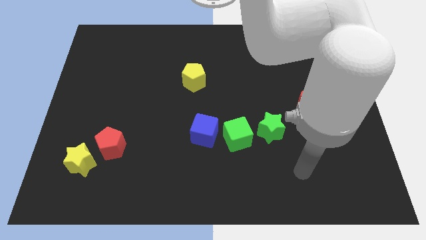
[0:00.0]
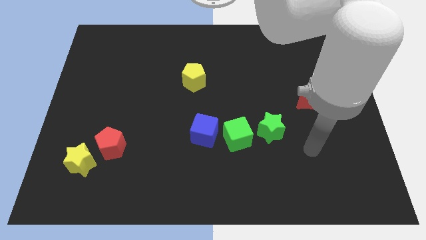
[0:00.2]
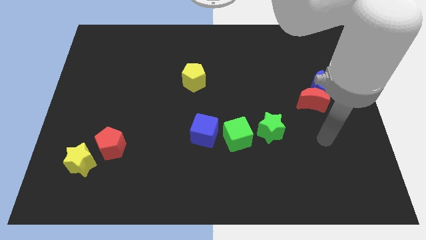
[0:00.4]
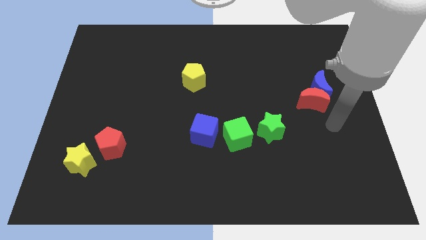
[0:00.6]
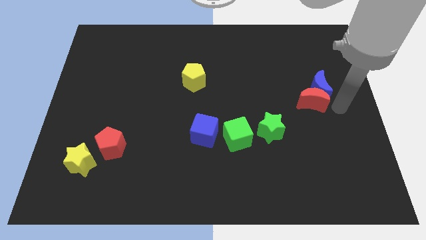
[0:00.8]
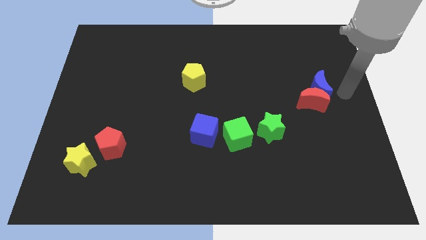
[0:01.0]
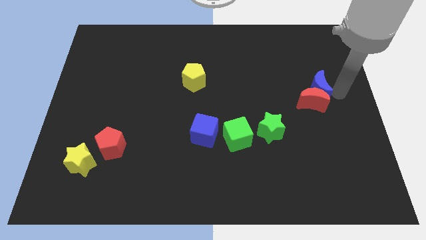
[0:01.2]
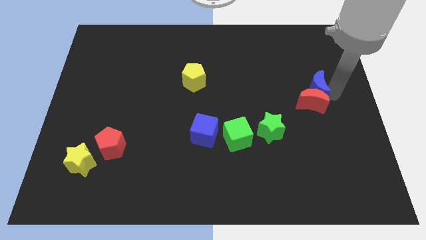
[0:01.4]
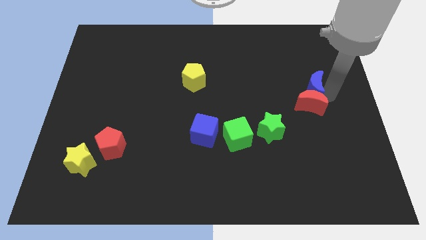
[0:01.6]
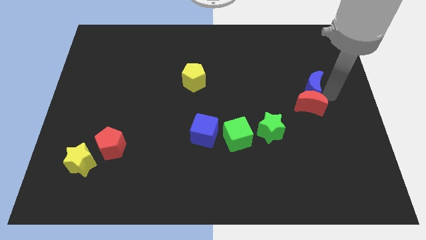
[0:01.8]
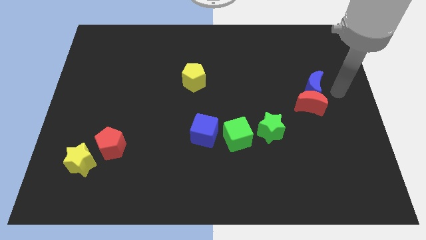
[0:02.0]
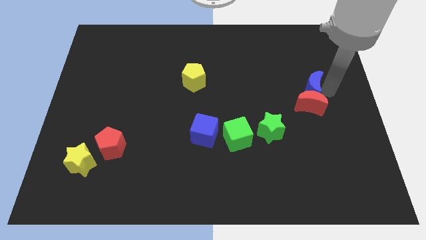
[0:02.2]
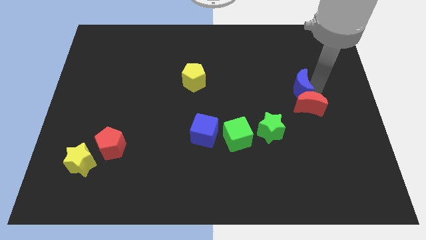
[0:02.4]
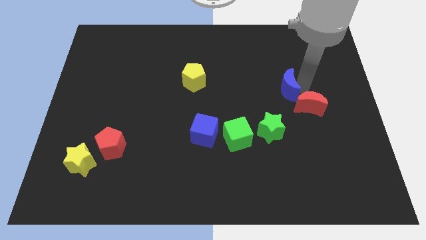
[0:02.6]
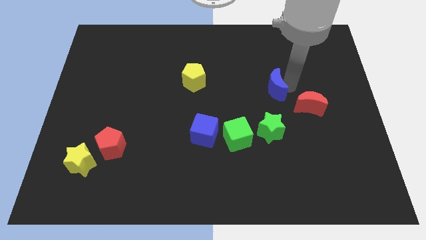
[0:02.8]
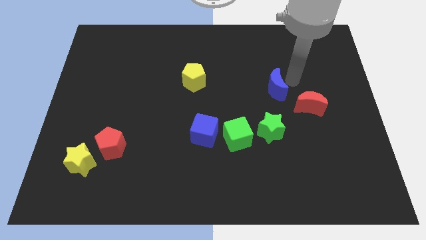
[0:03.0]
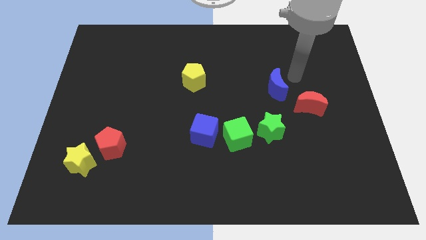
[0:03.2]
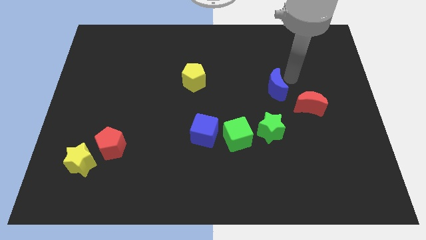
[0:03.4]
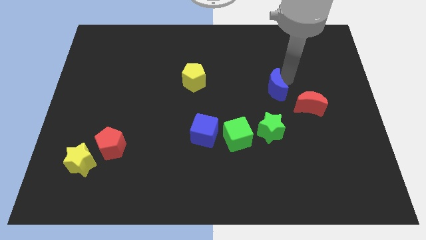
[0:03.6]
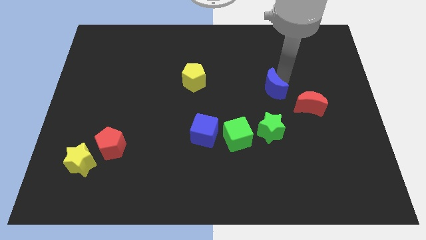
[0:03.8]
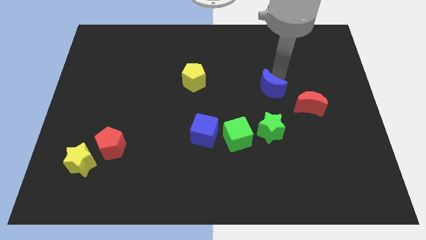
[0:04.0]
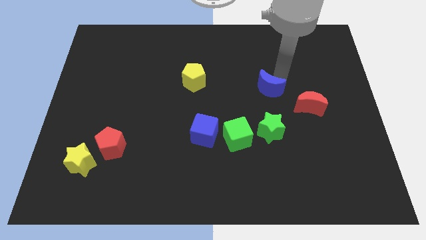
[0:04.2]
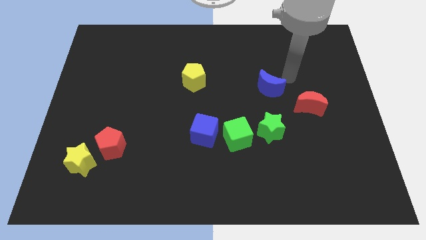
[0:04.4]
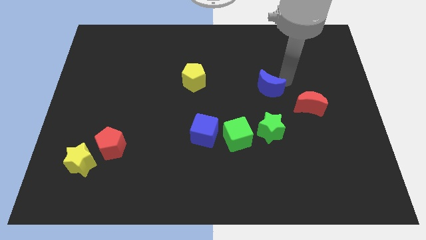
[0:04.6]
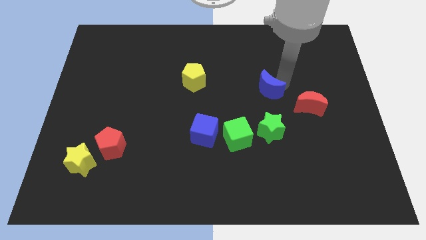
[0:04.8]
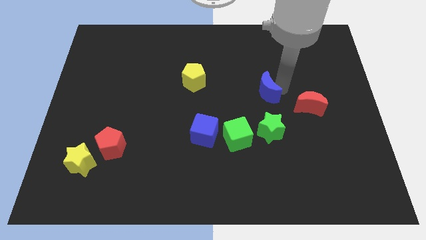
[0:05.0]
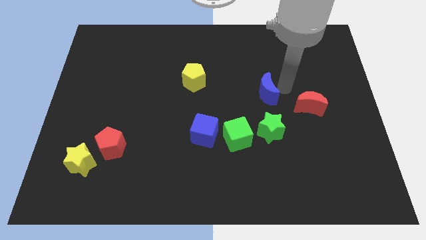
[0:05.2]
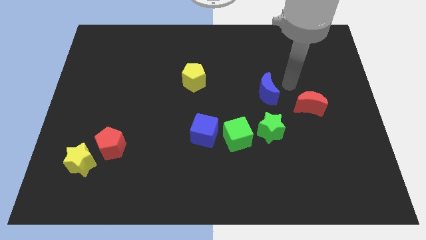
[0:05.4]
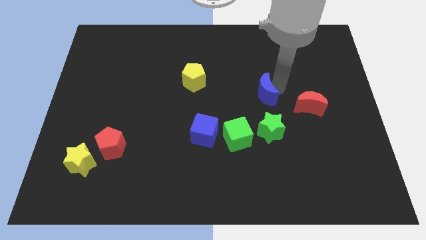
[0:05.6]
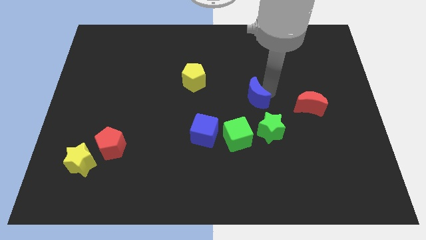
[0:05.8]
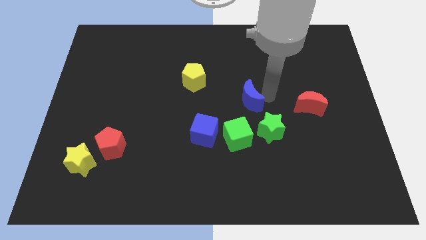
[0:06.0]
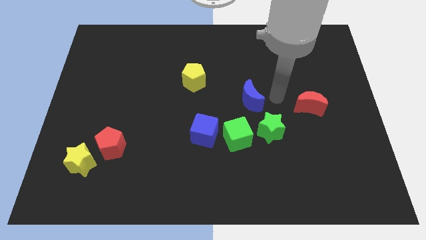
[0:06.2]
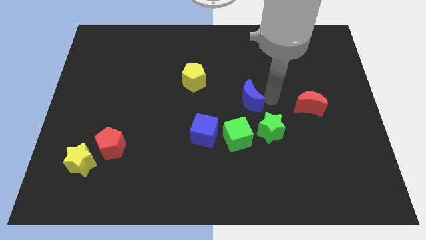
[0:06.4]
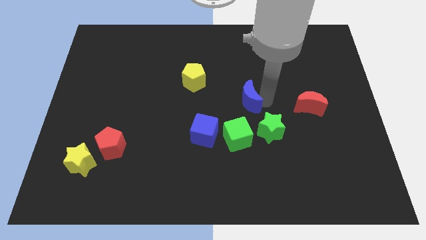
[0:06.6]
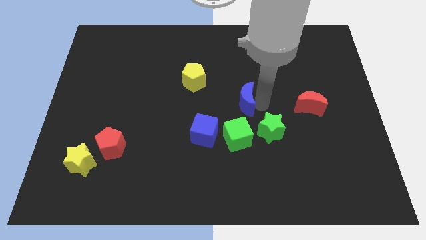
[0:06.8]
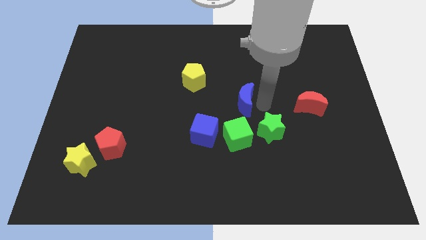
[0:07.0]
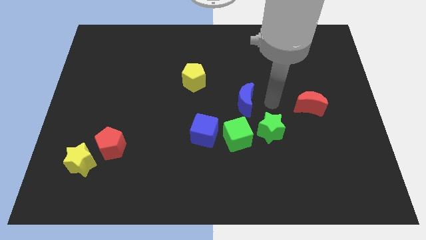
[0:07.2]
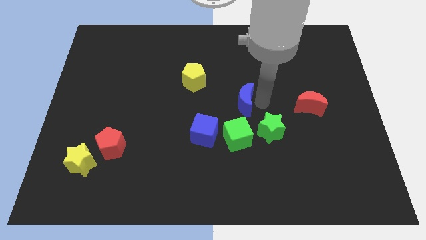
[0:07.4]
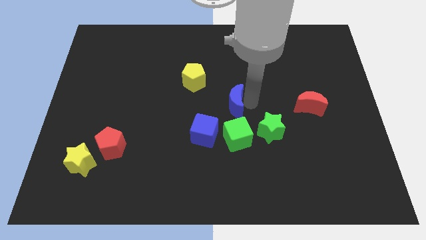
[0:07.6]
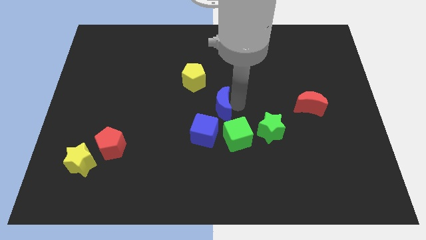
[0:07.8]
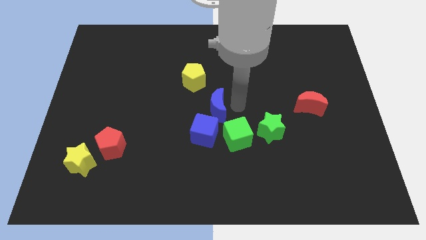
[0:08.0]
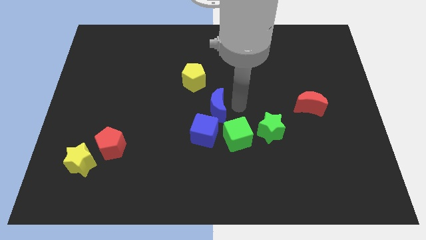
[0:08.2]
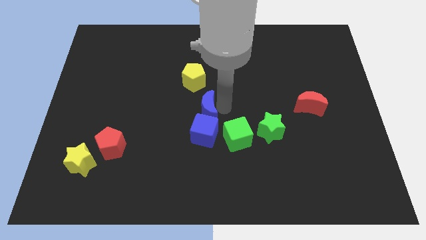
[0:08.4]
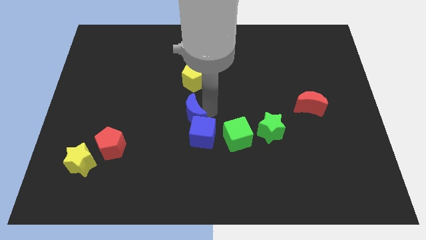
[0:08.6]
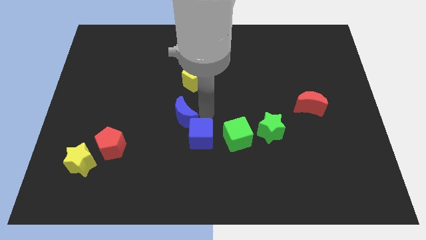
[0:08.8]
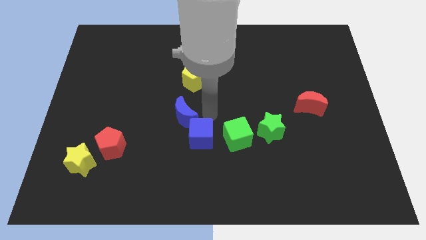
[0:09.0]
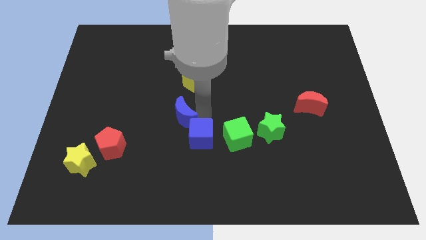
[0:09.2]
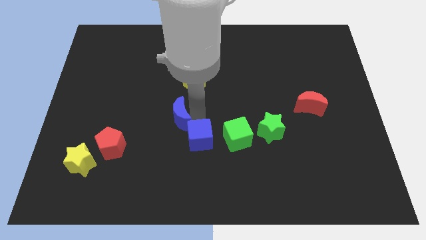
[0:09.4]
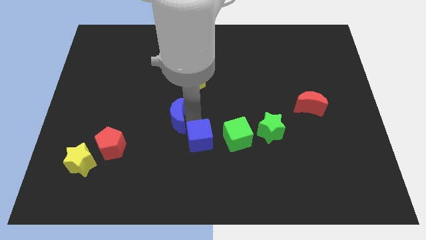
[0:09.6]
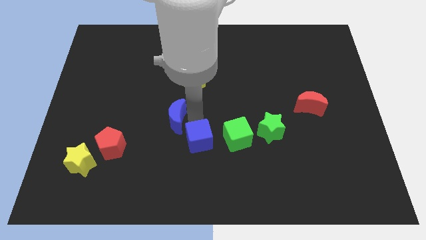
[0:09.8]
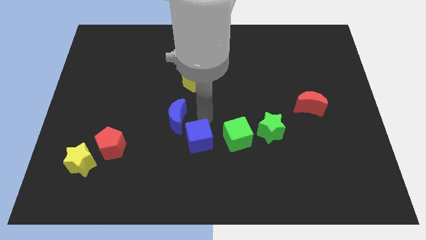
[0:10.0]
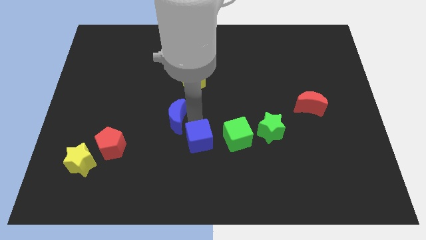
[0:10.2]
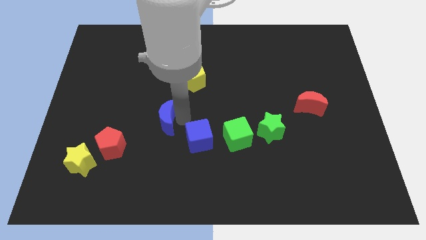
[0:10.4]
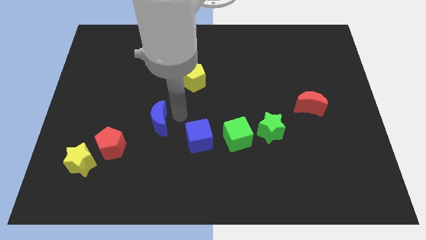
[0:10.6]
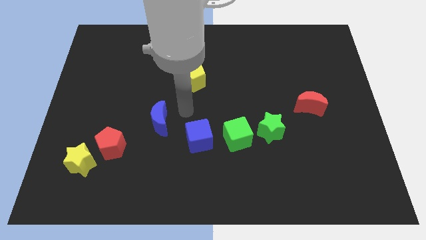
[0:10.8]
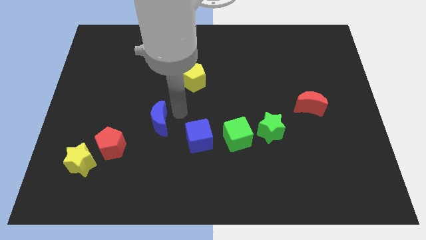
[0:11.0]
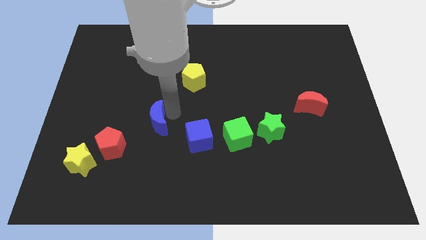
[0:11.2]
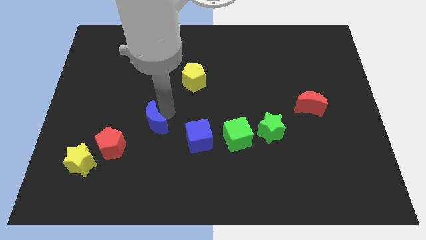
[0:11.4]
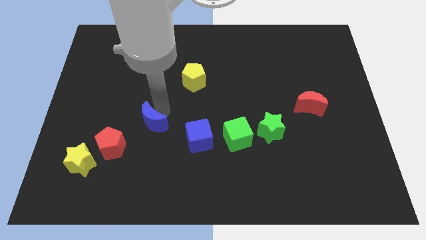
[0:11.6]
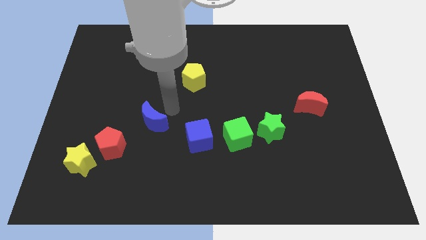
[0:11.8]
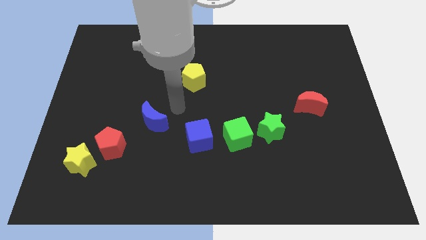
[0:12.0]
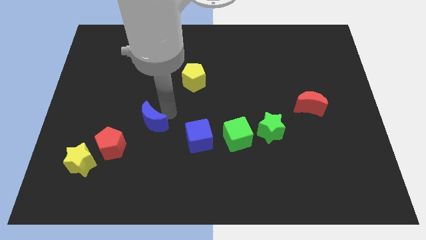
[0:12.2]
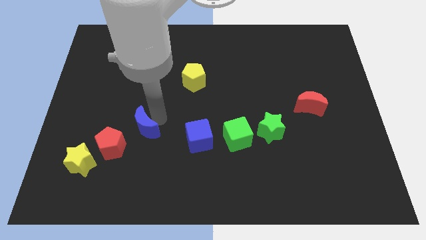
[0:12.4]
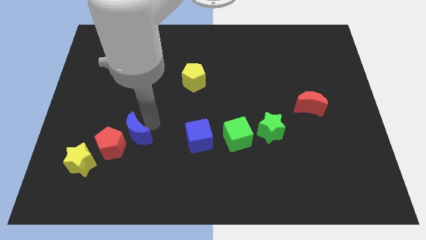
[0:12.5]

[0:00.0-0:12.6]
slide the blue moon next to the red pentagon

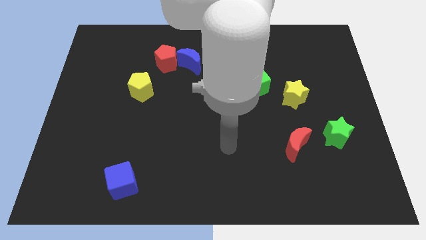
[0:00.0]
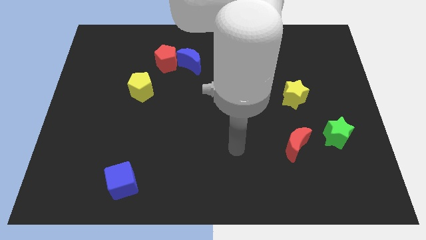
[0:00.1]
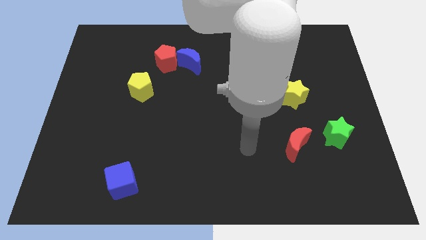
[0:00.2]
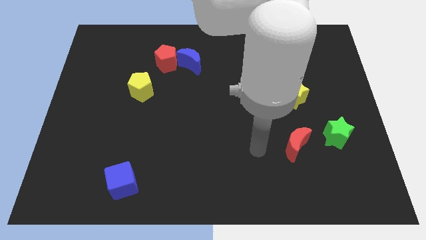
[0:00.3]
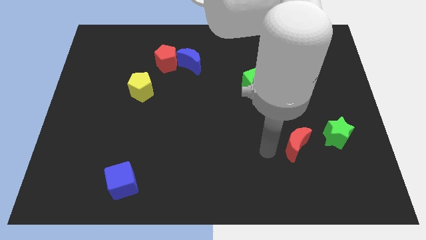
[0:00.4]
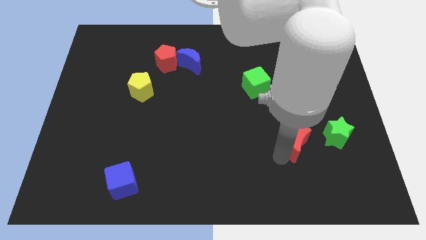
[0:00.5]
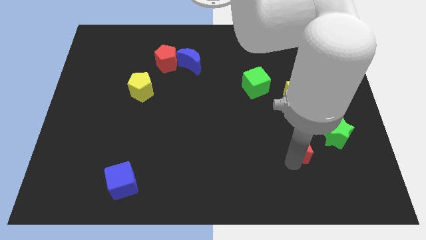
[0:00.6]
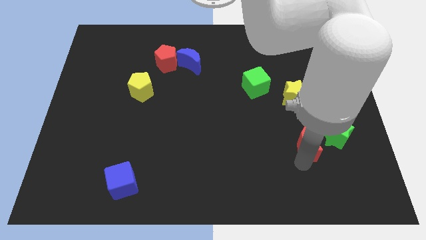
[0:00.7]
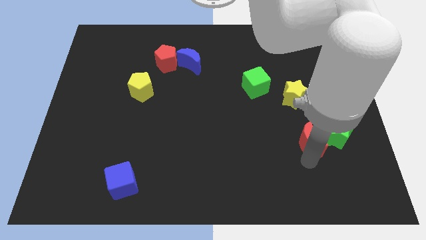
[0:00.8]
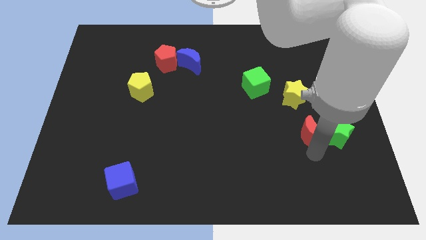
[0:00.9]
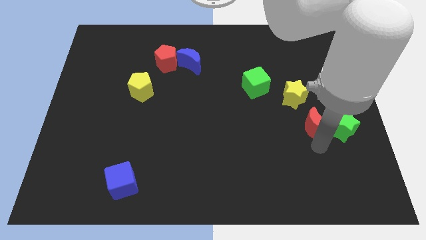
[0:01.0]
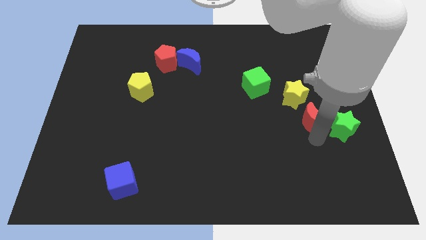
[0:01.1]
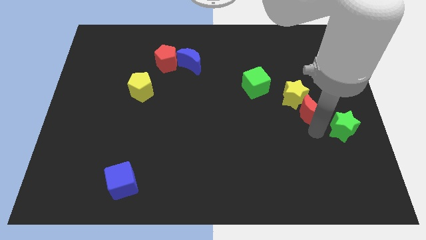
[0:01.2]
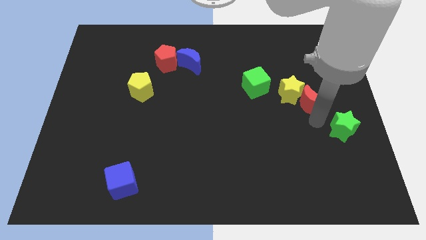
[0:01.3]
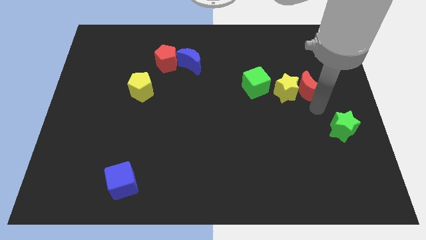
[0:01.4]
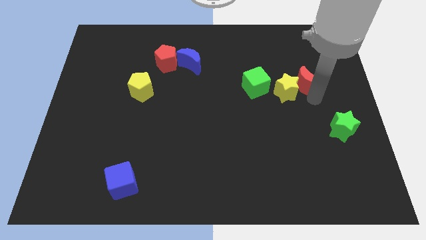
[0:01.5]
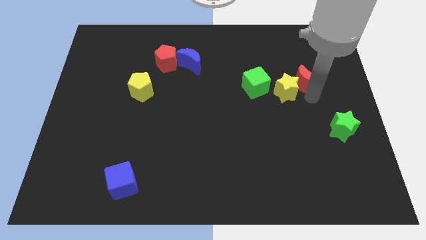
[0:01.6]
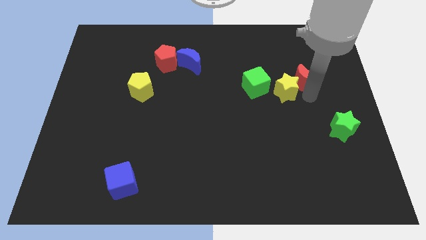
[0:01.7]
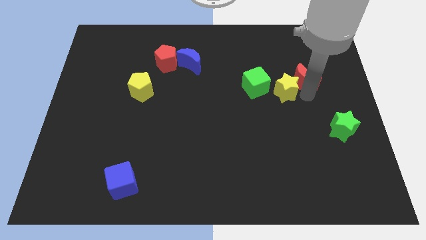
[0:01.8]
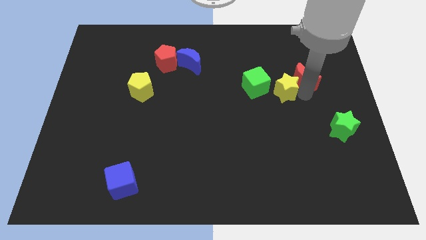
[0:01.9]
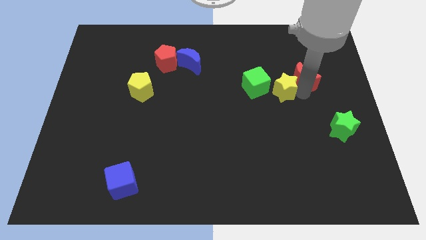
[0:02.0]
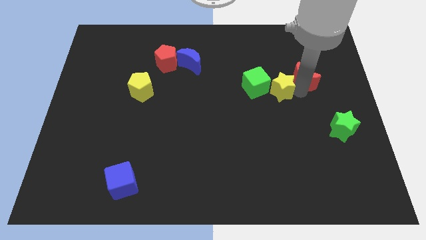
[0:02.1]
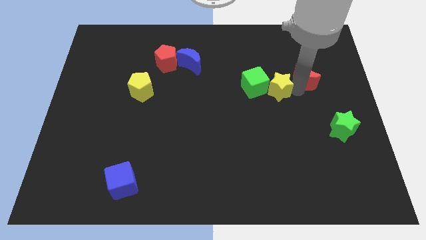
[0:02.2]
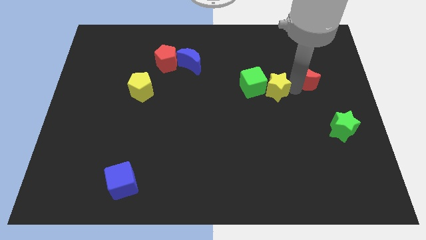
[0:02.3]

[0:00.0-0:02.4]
push the yellow star next to the green cube
